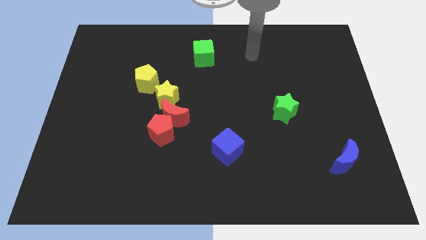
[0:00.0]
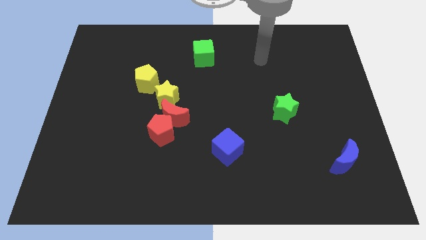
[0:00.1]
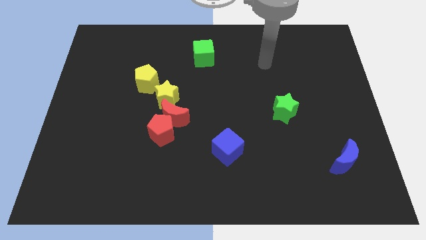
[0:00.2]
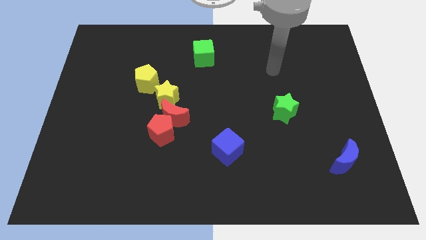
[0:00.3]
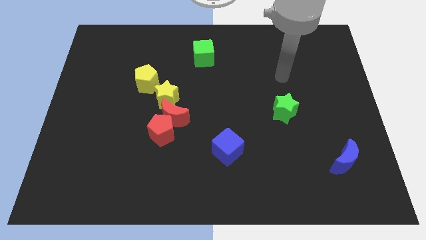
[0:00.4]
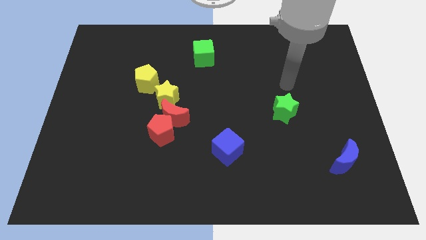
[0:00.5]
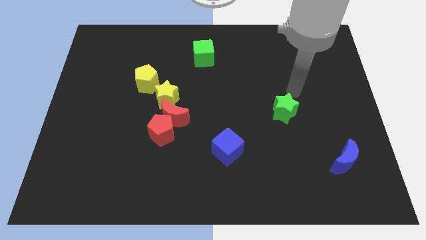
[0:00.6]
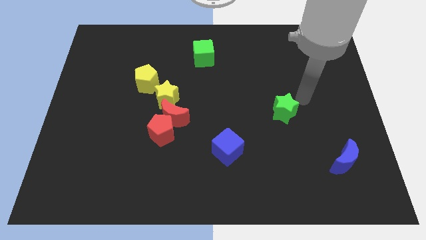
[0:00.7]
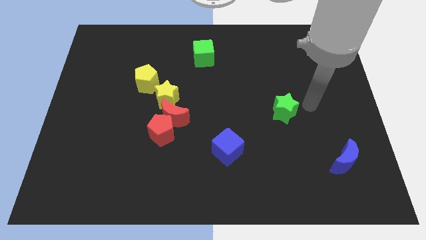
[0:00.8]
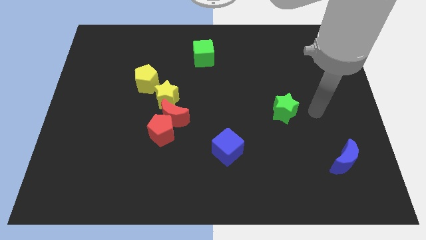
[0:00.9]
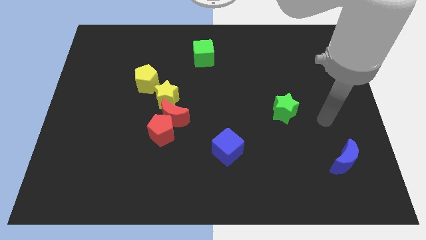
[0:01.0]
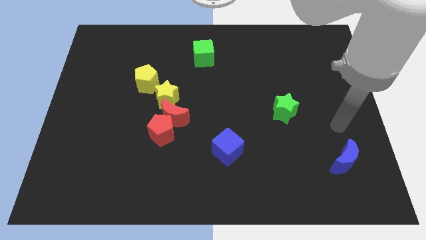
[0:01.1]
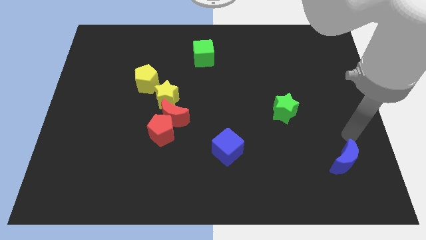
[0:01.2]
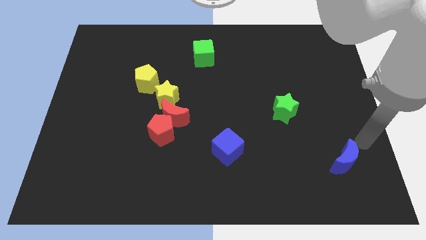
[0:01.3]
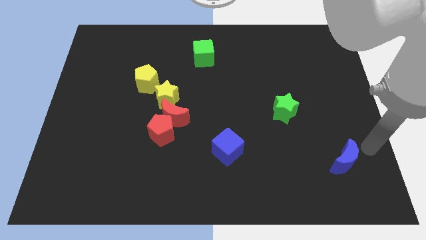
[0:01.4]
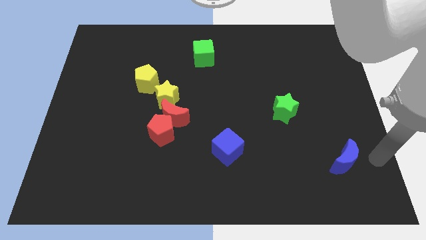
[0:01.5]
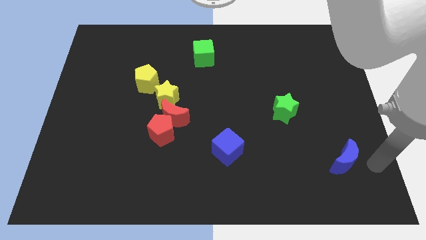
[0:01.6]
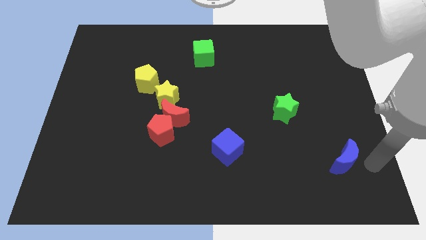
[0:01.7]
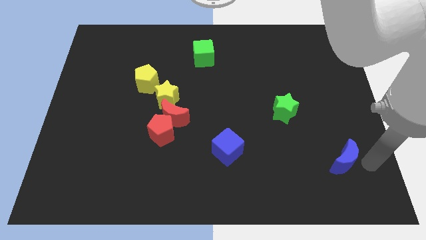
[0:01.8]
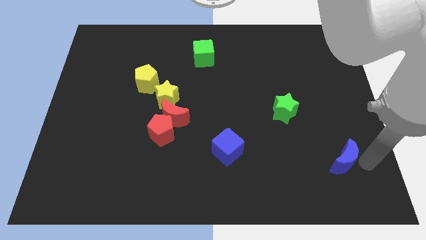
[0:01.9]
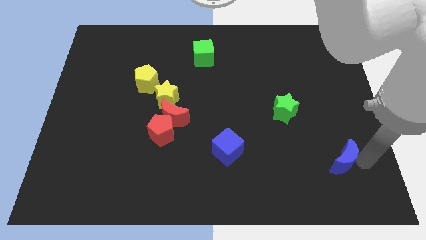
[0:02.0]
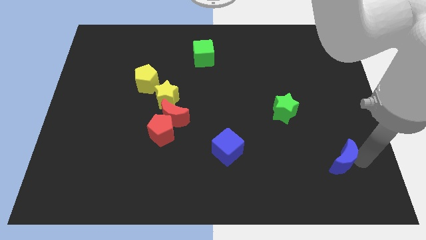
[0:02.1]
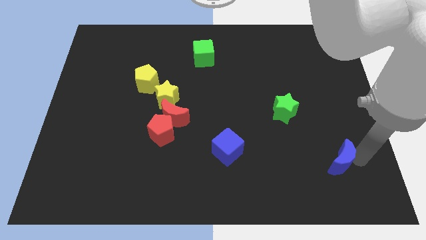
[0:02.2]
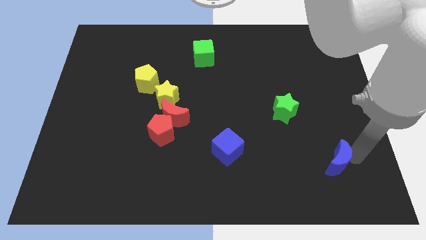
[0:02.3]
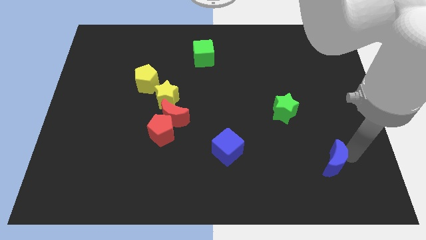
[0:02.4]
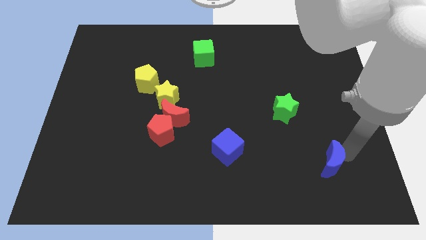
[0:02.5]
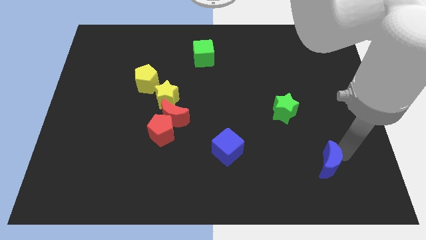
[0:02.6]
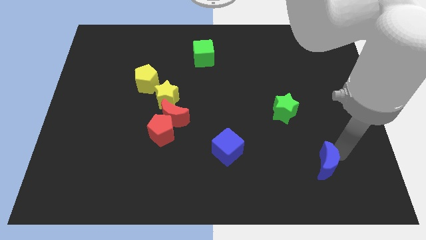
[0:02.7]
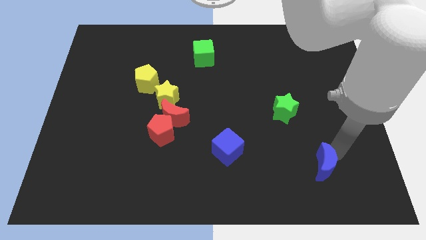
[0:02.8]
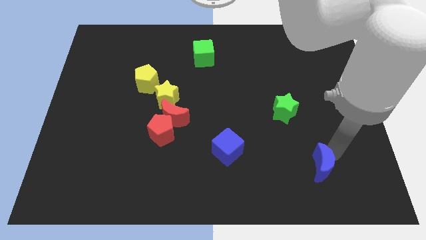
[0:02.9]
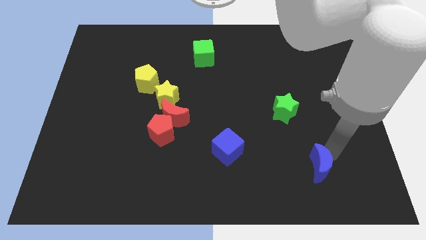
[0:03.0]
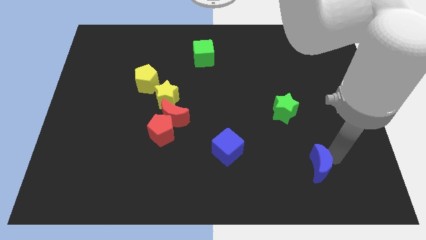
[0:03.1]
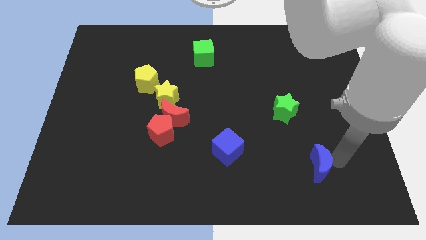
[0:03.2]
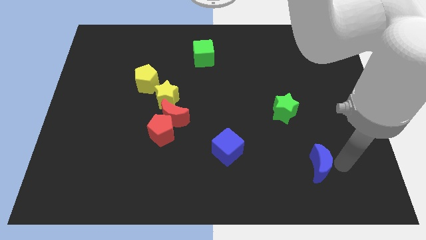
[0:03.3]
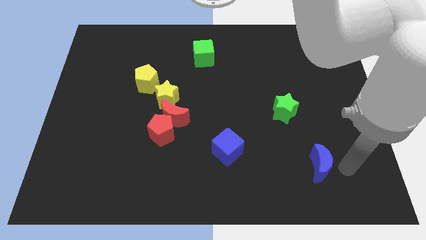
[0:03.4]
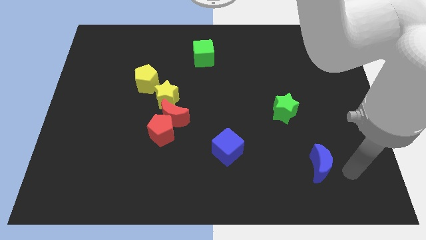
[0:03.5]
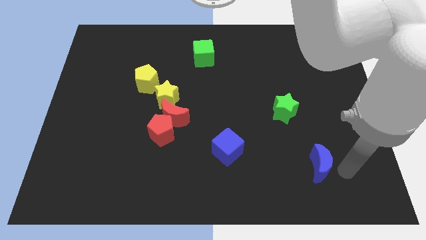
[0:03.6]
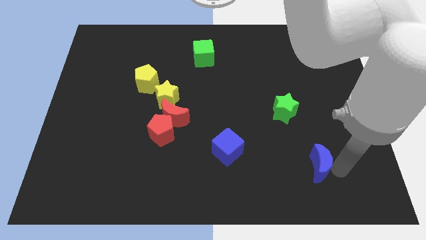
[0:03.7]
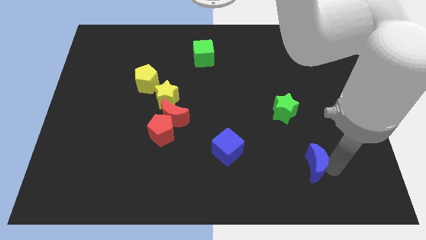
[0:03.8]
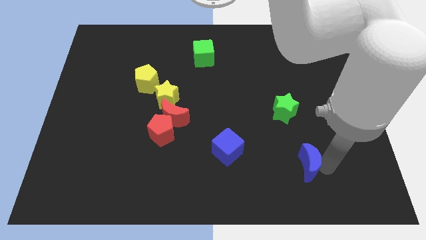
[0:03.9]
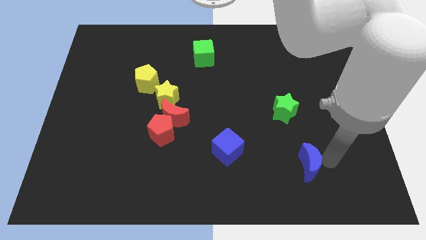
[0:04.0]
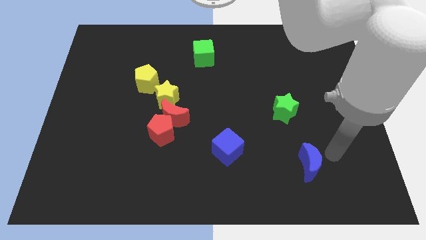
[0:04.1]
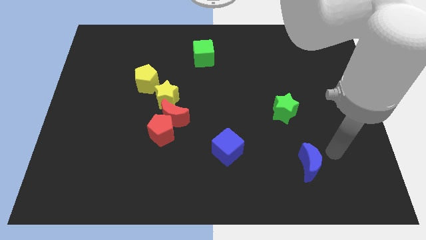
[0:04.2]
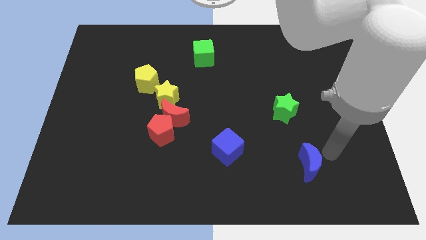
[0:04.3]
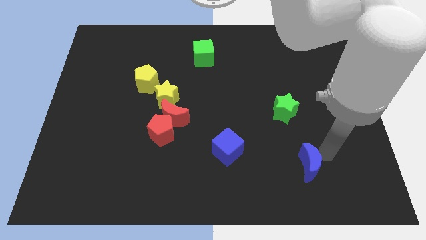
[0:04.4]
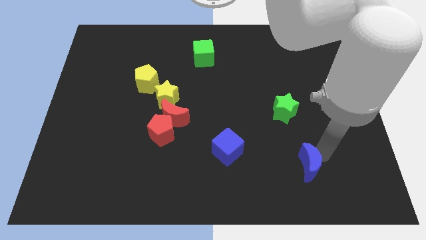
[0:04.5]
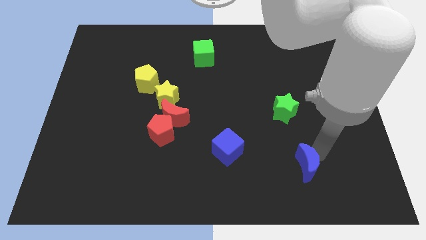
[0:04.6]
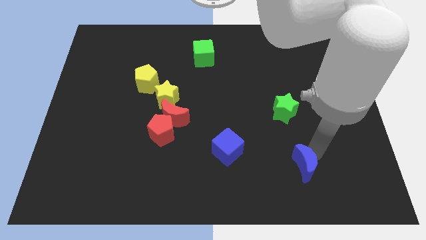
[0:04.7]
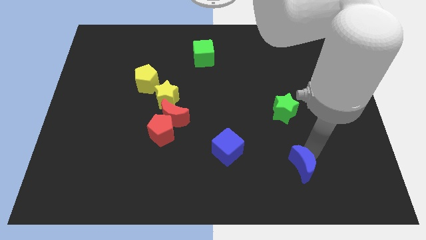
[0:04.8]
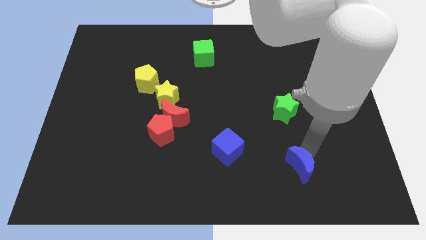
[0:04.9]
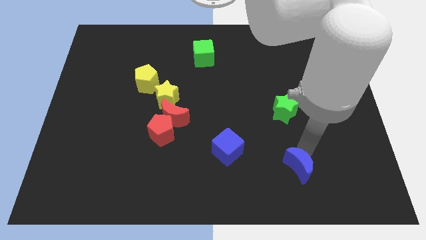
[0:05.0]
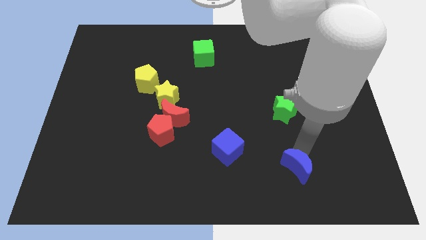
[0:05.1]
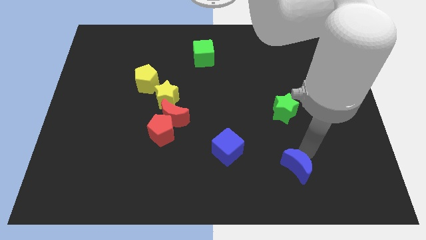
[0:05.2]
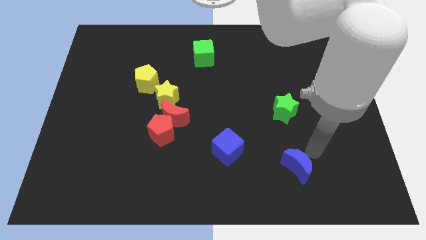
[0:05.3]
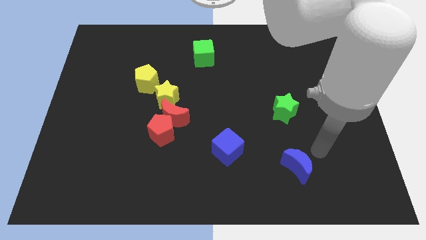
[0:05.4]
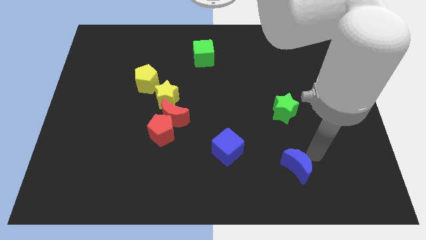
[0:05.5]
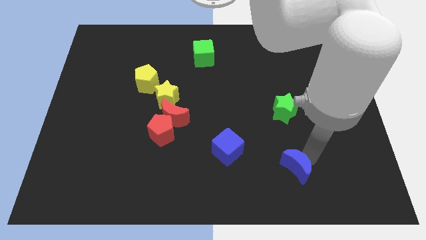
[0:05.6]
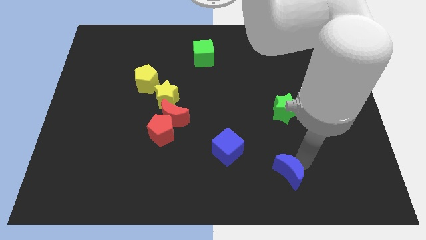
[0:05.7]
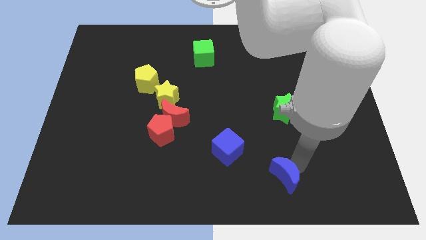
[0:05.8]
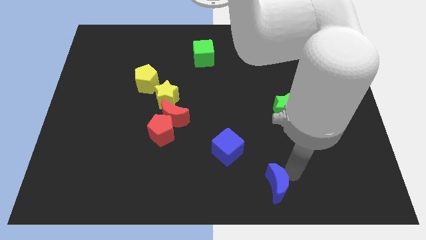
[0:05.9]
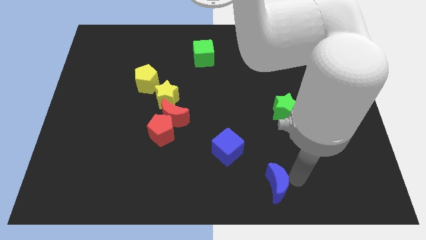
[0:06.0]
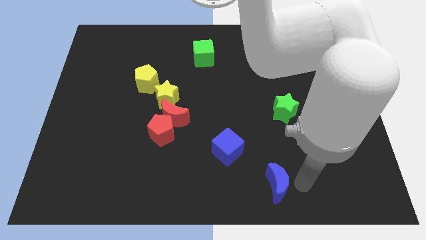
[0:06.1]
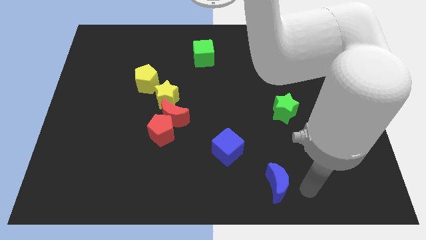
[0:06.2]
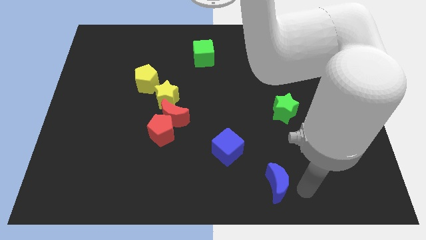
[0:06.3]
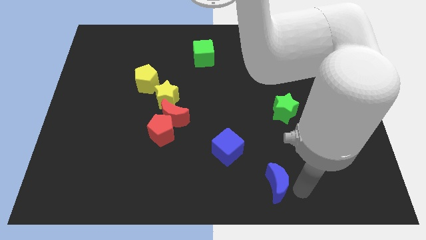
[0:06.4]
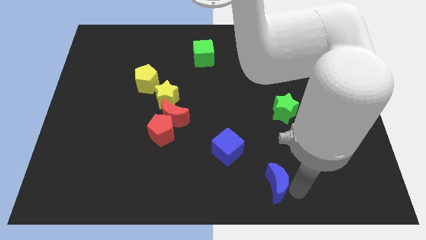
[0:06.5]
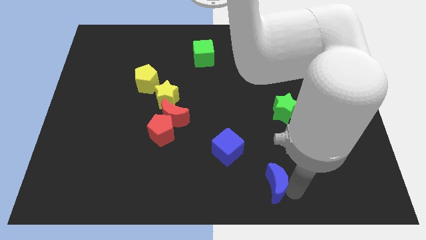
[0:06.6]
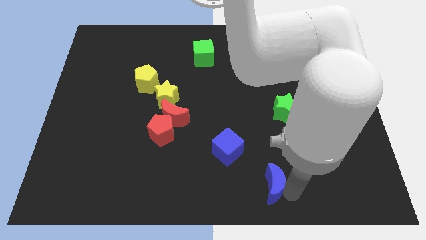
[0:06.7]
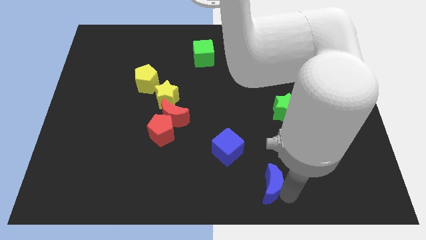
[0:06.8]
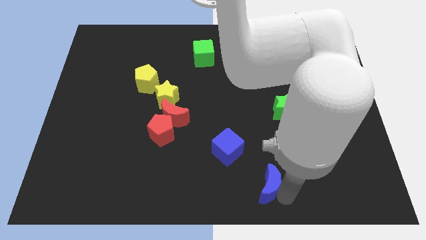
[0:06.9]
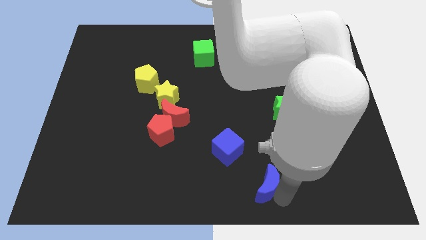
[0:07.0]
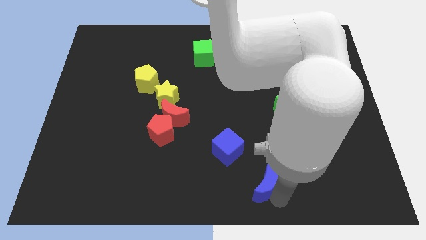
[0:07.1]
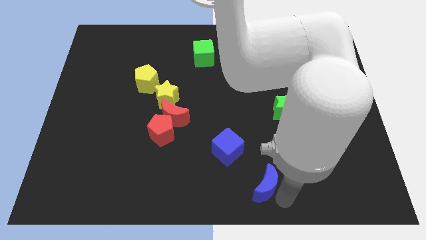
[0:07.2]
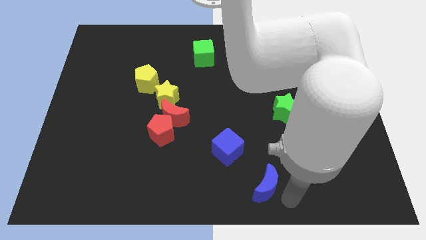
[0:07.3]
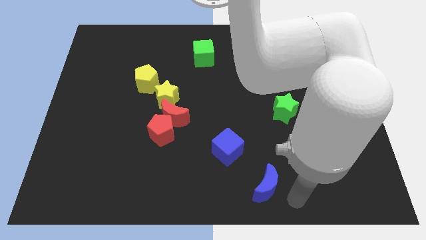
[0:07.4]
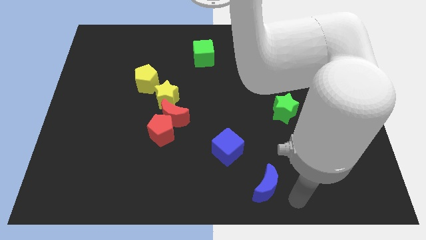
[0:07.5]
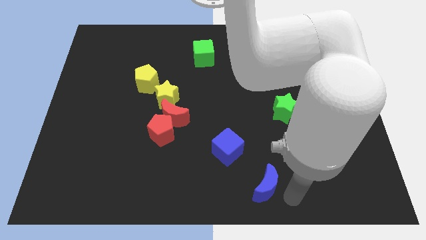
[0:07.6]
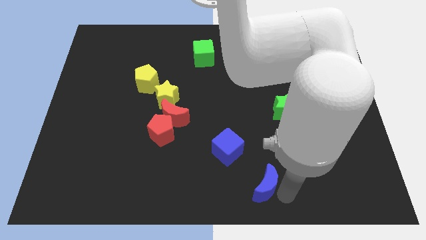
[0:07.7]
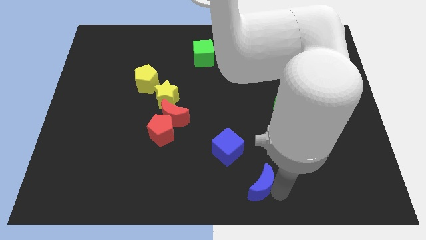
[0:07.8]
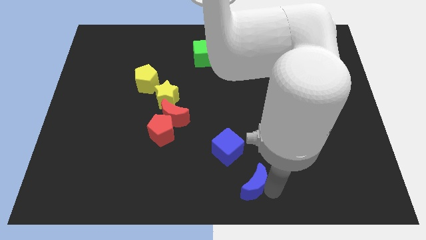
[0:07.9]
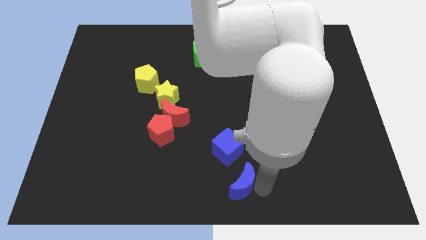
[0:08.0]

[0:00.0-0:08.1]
slide the blue moon to the left
